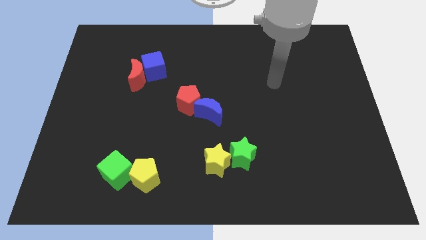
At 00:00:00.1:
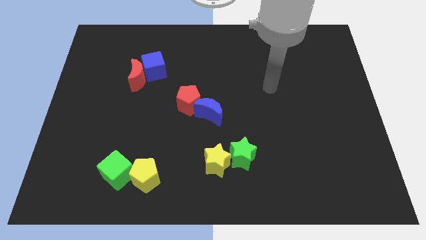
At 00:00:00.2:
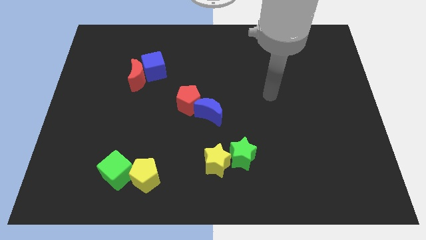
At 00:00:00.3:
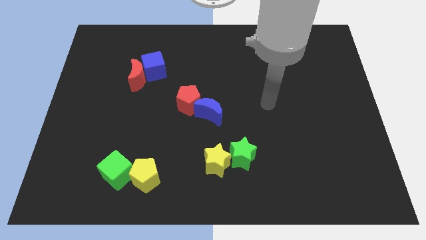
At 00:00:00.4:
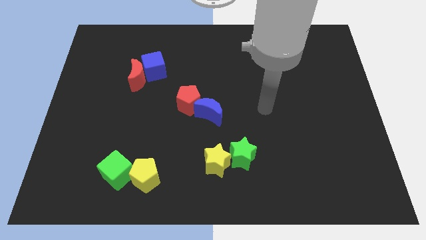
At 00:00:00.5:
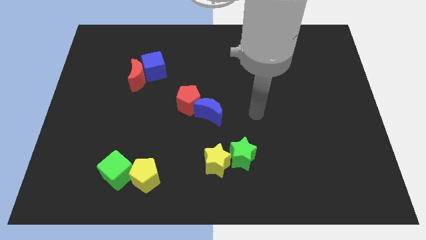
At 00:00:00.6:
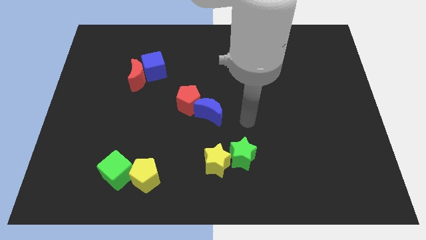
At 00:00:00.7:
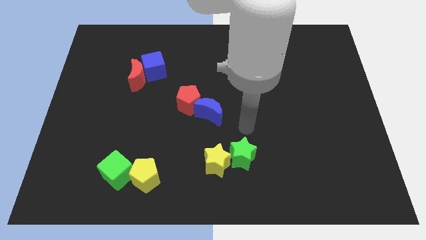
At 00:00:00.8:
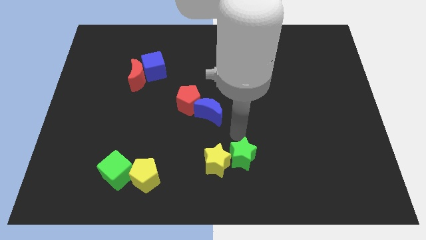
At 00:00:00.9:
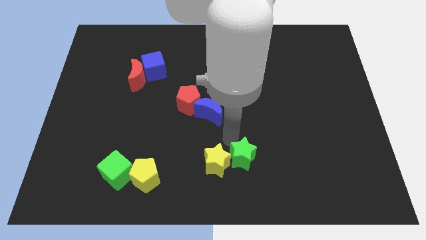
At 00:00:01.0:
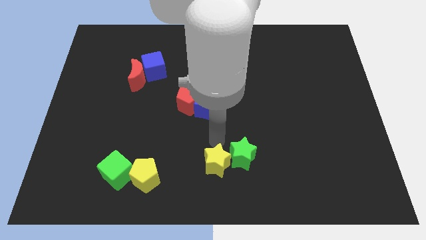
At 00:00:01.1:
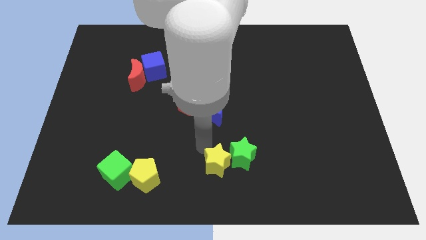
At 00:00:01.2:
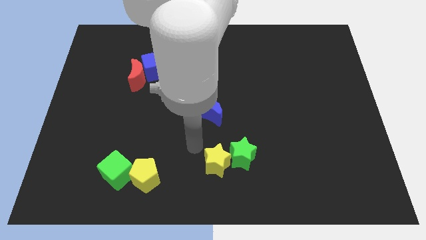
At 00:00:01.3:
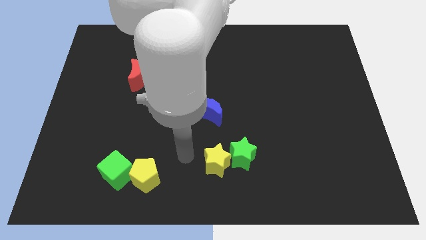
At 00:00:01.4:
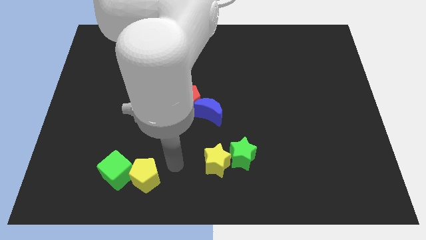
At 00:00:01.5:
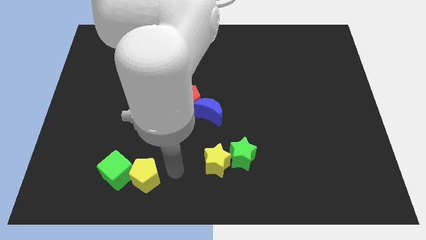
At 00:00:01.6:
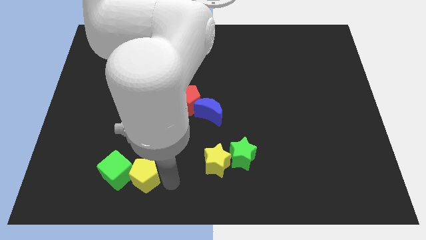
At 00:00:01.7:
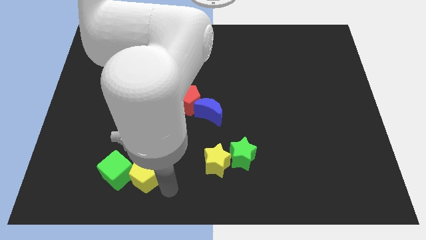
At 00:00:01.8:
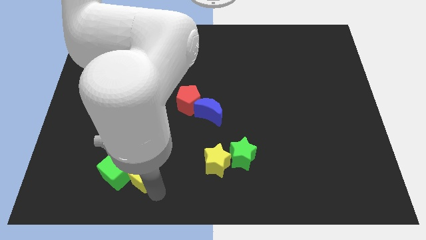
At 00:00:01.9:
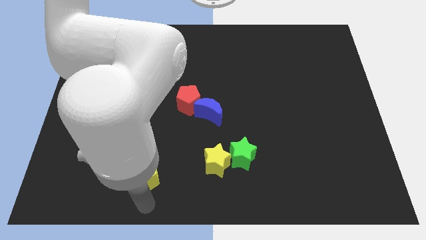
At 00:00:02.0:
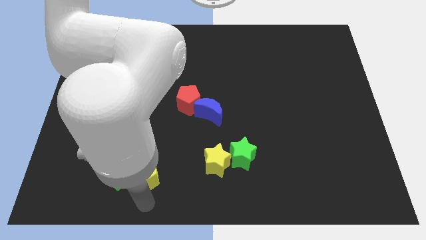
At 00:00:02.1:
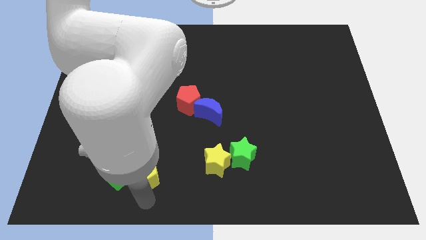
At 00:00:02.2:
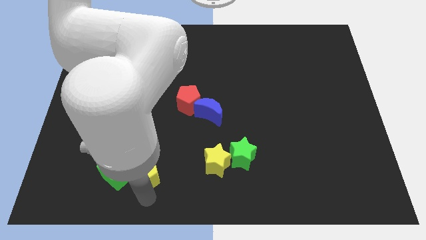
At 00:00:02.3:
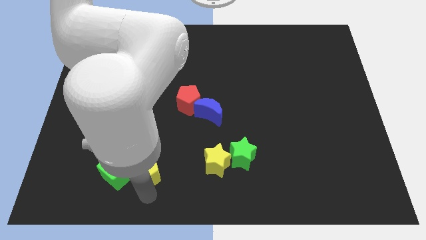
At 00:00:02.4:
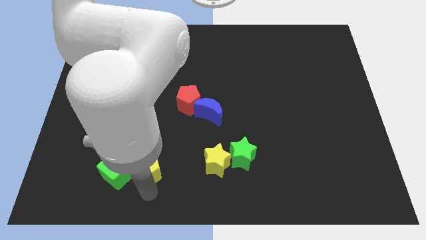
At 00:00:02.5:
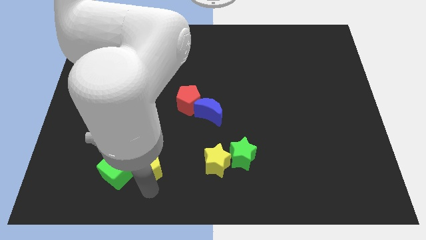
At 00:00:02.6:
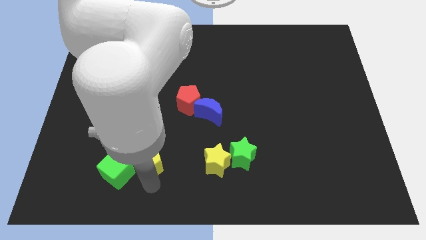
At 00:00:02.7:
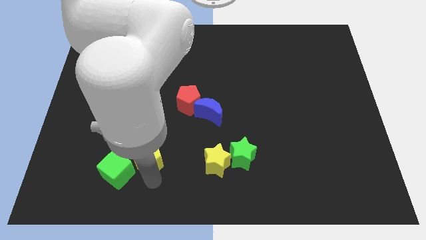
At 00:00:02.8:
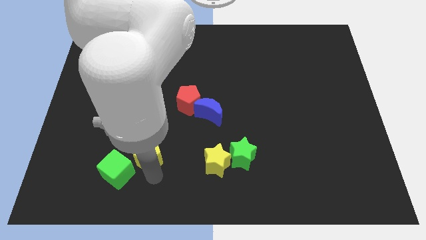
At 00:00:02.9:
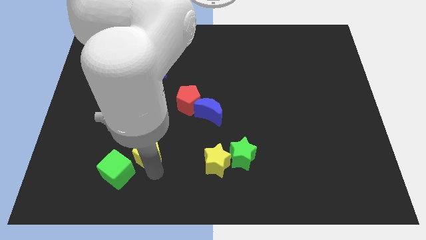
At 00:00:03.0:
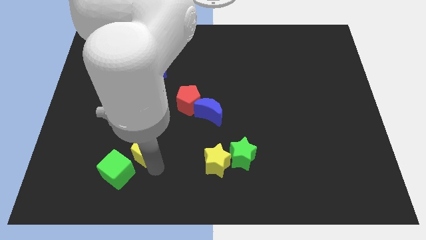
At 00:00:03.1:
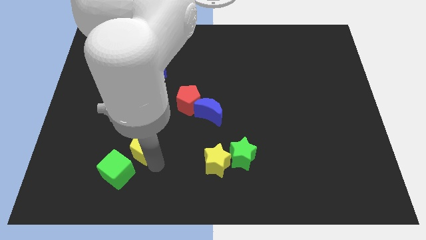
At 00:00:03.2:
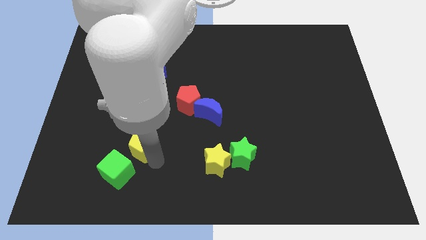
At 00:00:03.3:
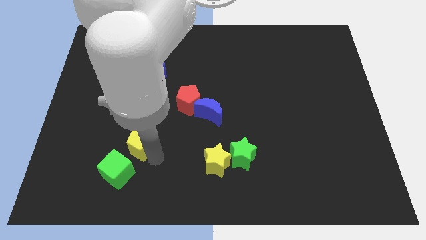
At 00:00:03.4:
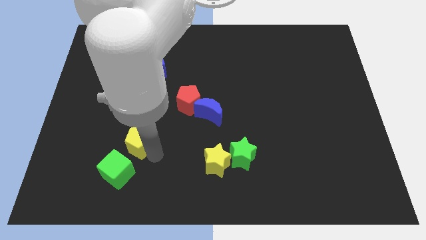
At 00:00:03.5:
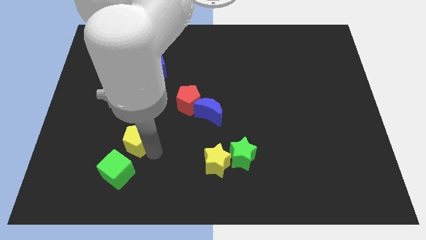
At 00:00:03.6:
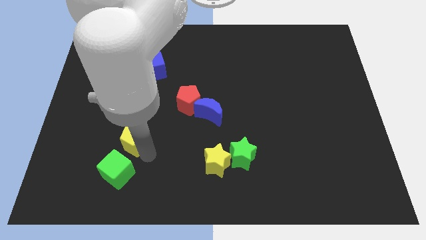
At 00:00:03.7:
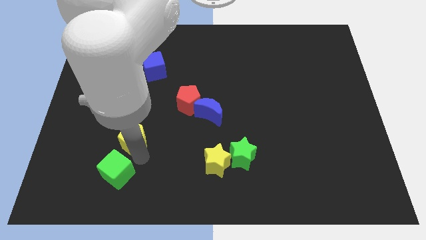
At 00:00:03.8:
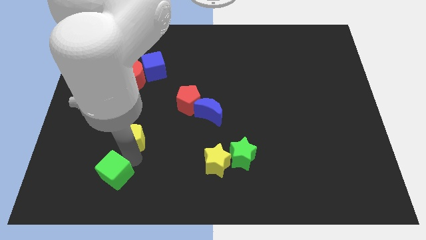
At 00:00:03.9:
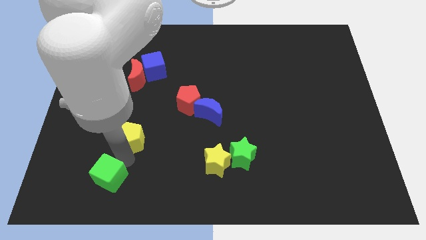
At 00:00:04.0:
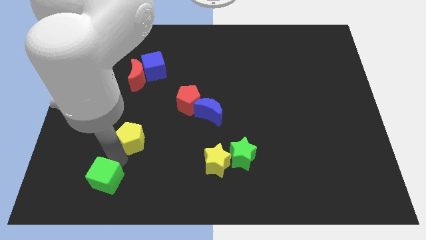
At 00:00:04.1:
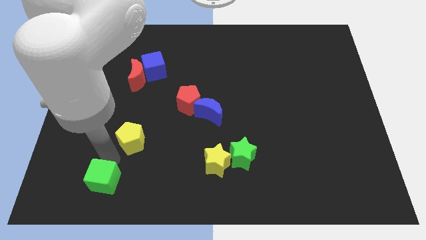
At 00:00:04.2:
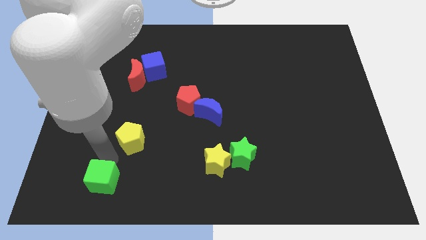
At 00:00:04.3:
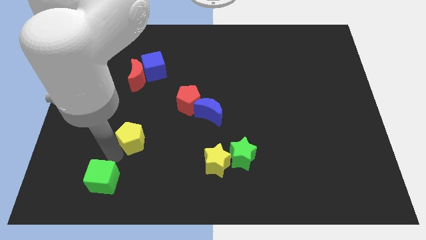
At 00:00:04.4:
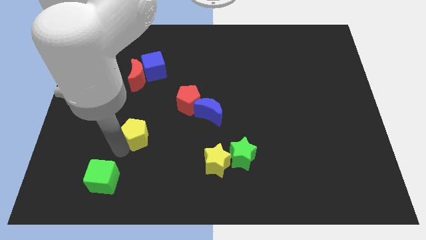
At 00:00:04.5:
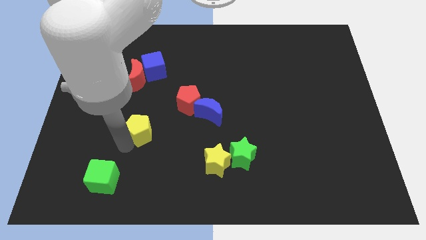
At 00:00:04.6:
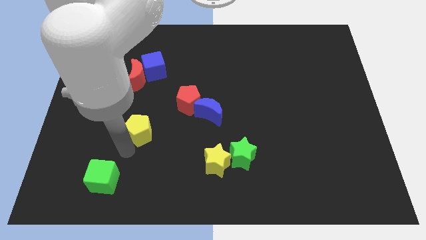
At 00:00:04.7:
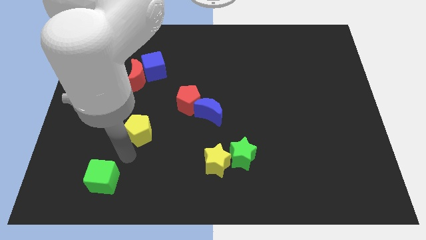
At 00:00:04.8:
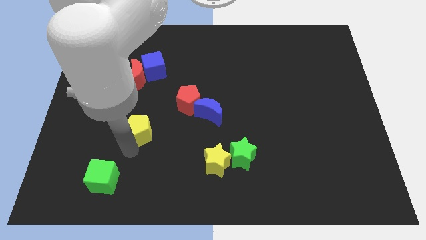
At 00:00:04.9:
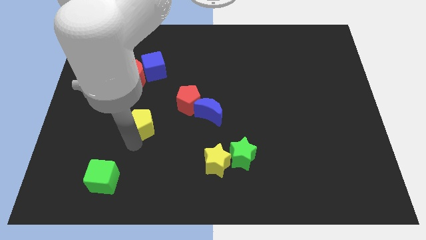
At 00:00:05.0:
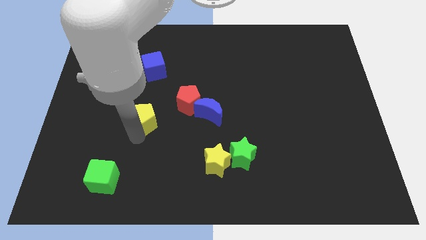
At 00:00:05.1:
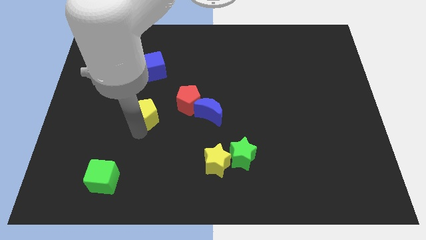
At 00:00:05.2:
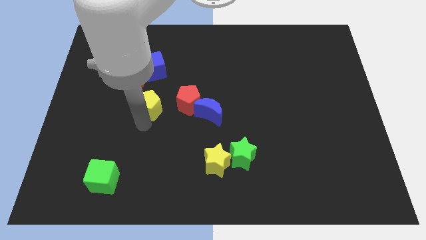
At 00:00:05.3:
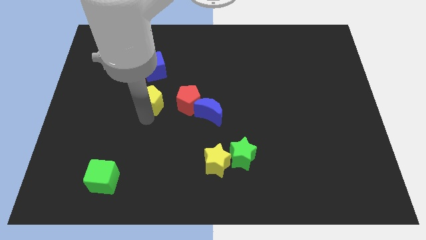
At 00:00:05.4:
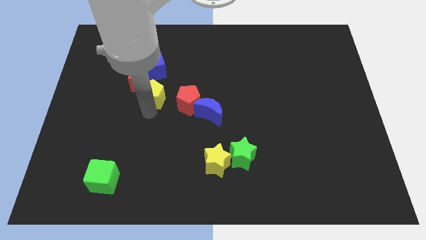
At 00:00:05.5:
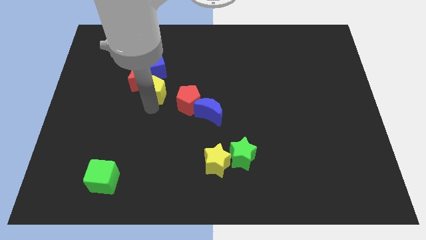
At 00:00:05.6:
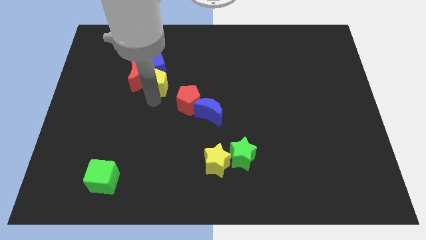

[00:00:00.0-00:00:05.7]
push the yellow pentagon towards the blue cube

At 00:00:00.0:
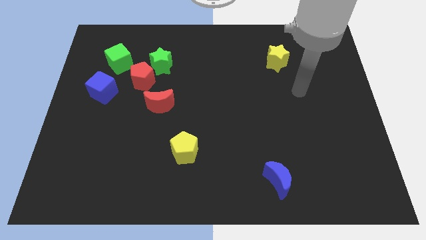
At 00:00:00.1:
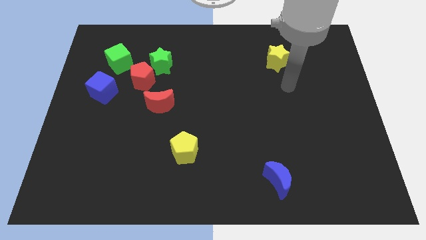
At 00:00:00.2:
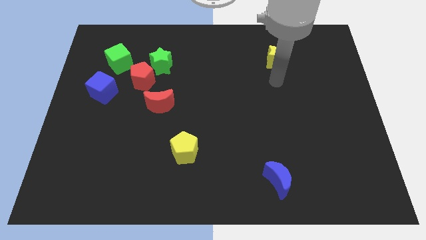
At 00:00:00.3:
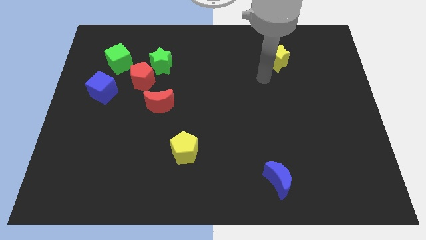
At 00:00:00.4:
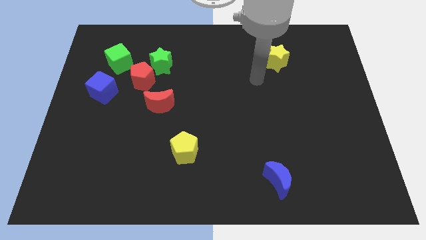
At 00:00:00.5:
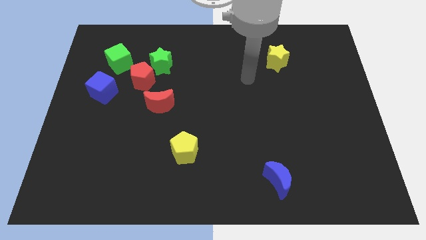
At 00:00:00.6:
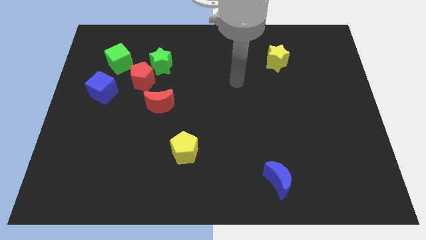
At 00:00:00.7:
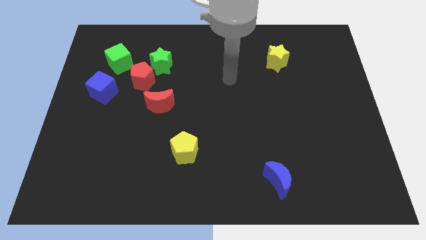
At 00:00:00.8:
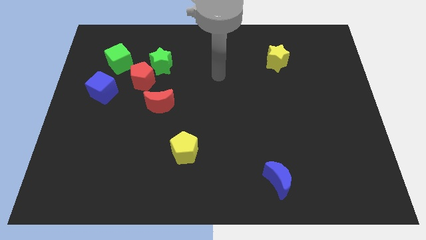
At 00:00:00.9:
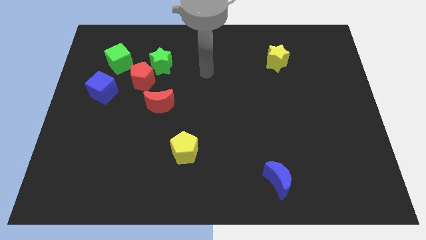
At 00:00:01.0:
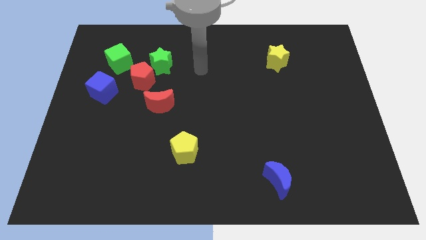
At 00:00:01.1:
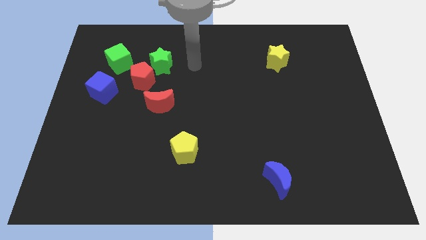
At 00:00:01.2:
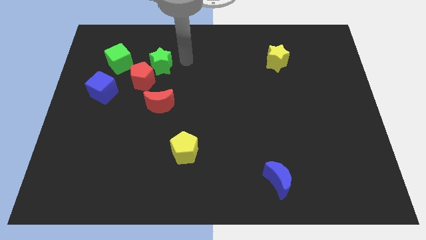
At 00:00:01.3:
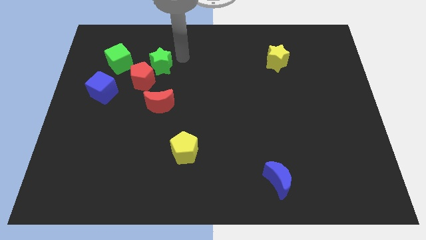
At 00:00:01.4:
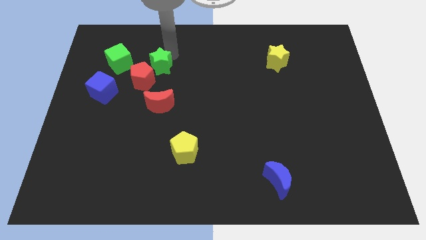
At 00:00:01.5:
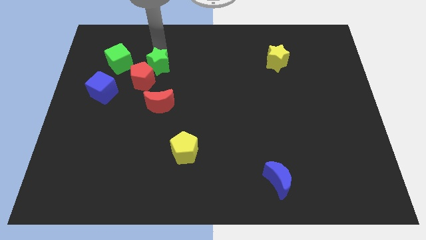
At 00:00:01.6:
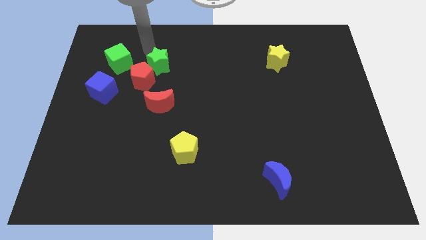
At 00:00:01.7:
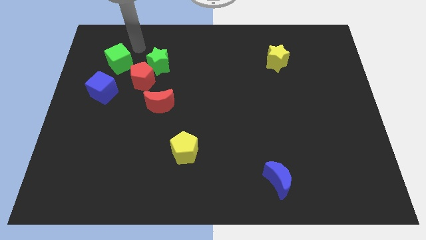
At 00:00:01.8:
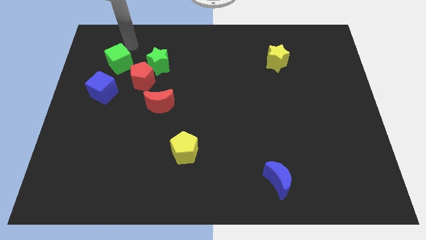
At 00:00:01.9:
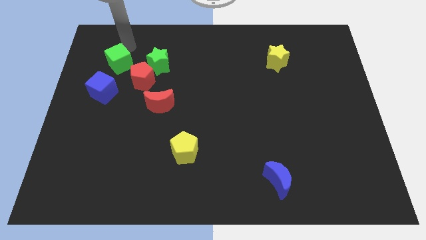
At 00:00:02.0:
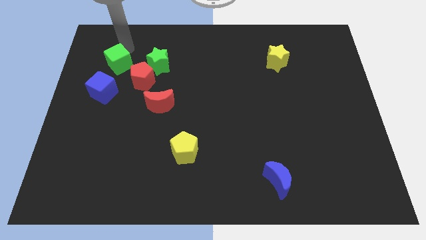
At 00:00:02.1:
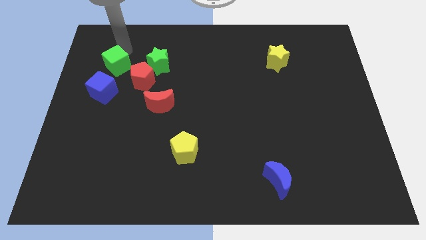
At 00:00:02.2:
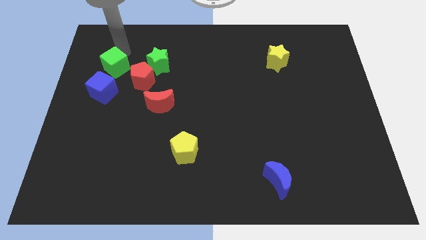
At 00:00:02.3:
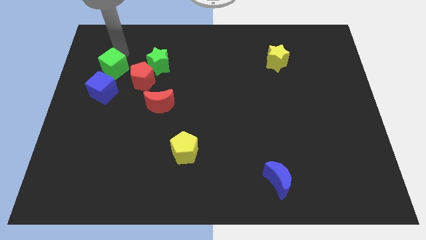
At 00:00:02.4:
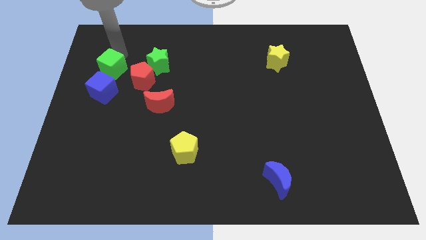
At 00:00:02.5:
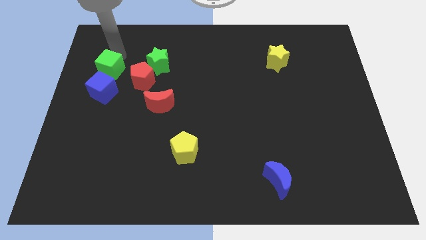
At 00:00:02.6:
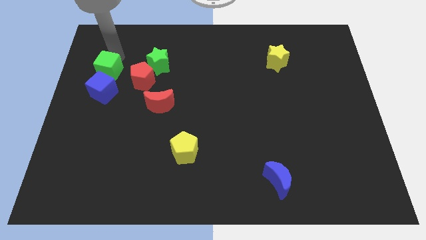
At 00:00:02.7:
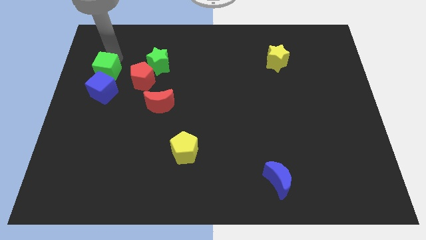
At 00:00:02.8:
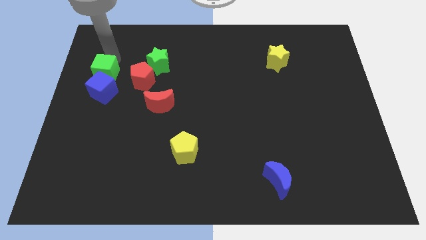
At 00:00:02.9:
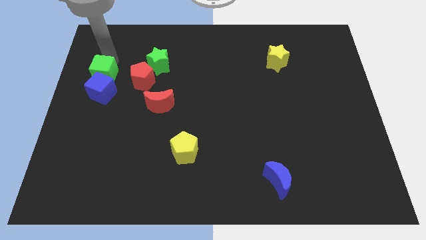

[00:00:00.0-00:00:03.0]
put the green cube to the blue cube
